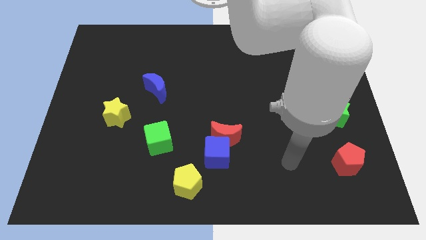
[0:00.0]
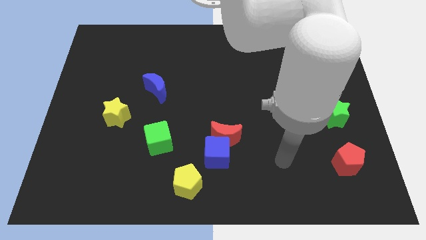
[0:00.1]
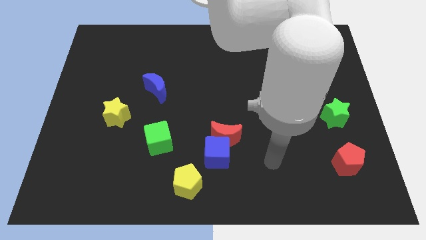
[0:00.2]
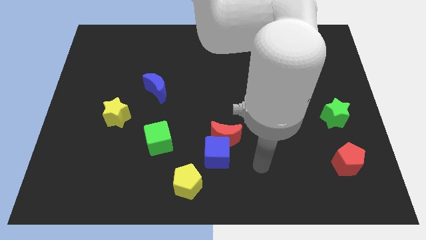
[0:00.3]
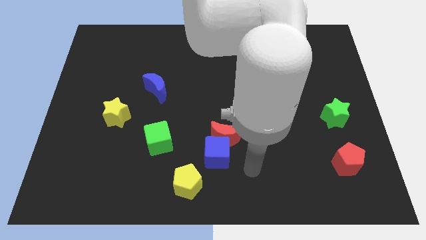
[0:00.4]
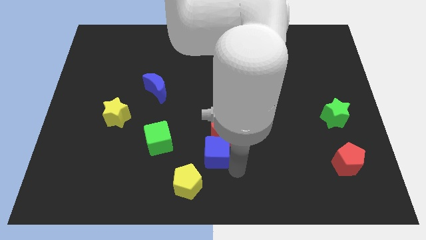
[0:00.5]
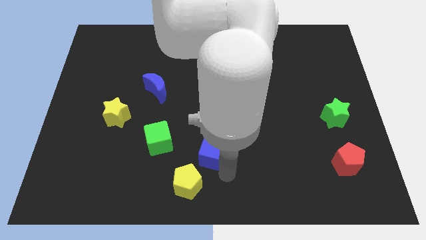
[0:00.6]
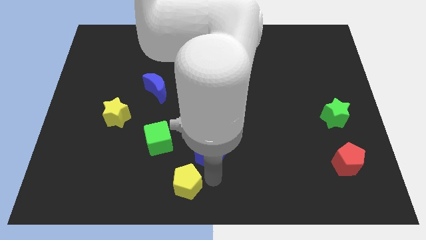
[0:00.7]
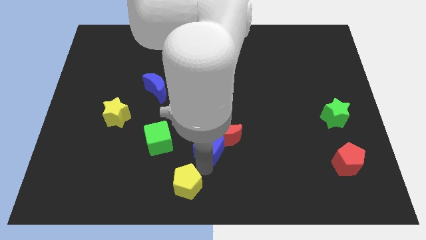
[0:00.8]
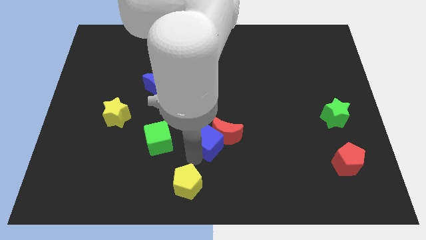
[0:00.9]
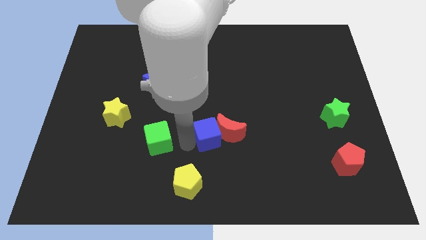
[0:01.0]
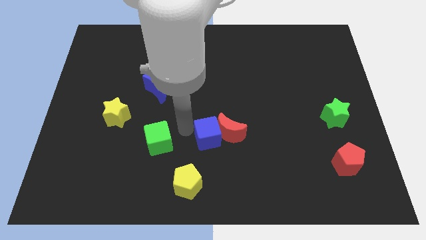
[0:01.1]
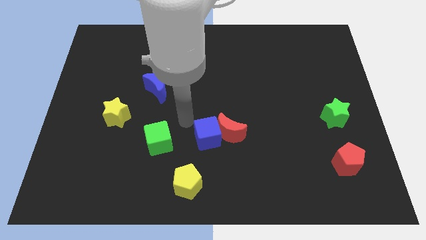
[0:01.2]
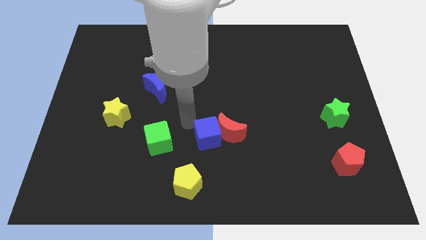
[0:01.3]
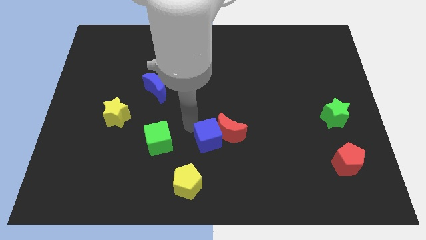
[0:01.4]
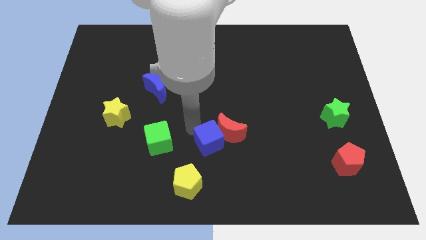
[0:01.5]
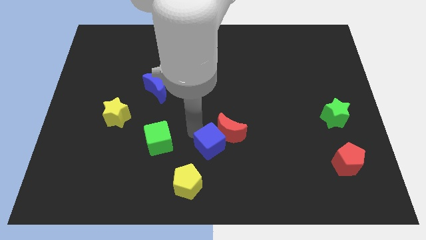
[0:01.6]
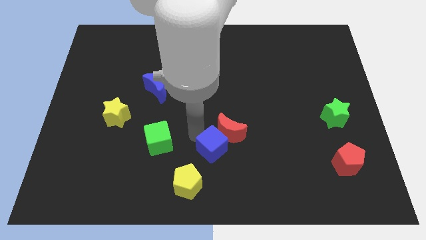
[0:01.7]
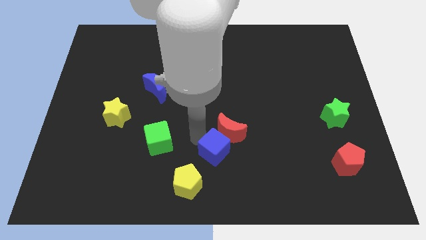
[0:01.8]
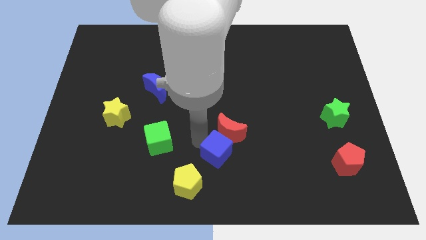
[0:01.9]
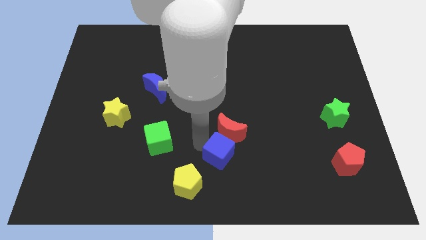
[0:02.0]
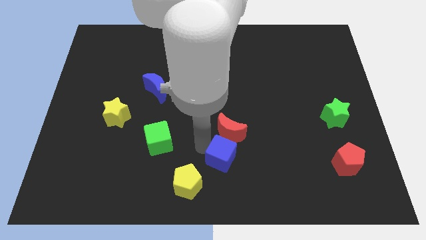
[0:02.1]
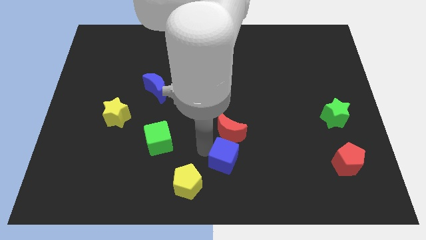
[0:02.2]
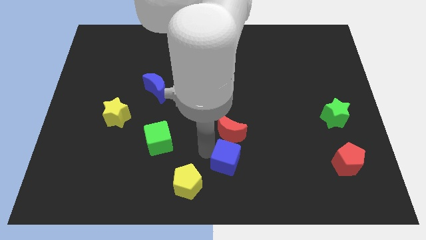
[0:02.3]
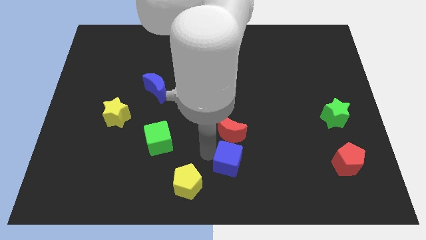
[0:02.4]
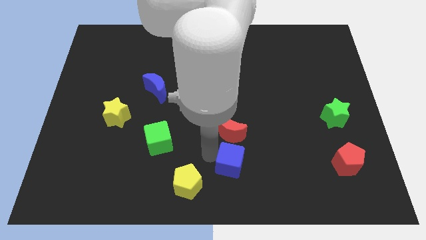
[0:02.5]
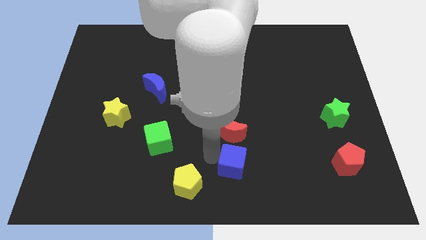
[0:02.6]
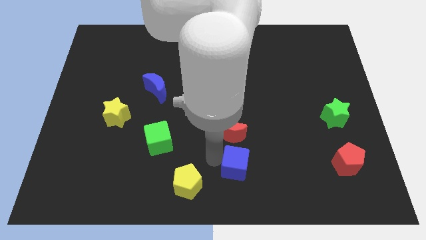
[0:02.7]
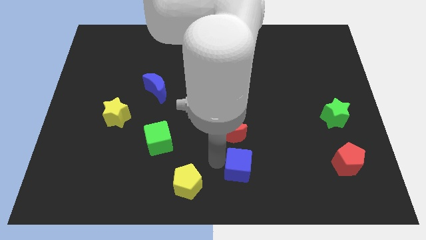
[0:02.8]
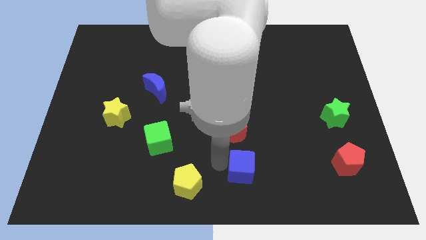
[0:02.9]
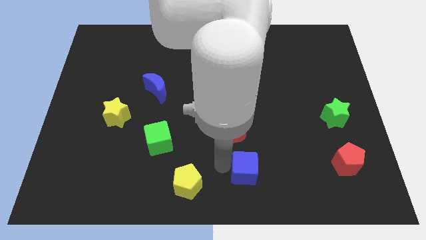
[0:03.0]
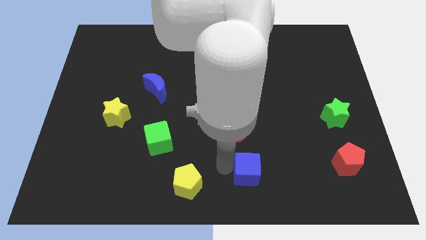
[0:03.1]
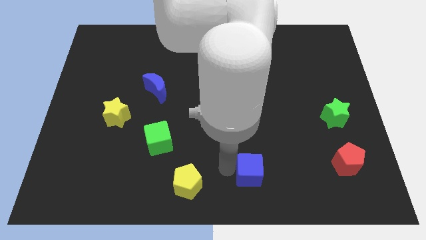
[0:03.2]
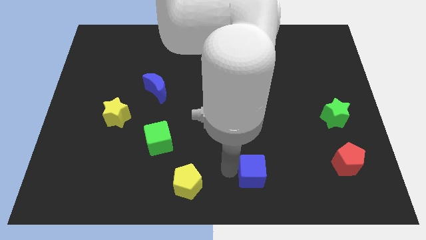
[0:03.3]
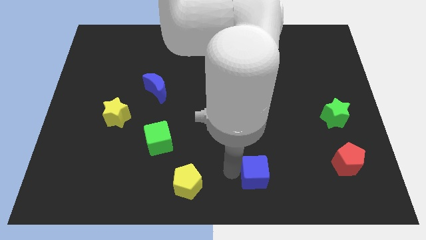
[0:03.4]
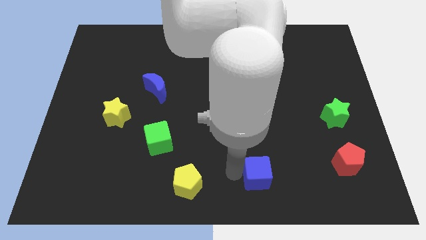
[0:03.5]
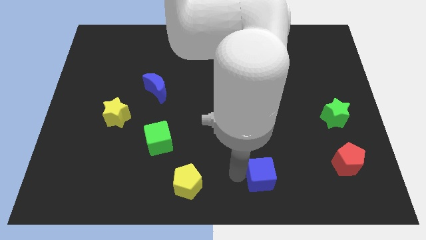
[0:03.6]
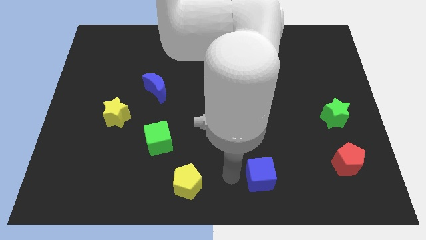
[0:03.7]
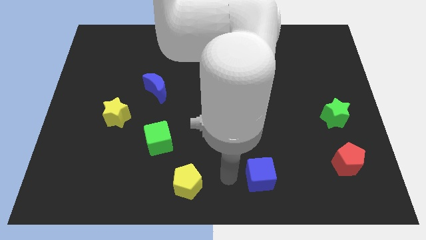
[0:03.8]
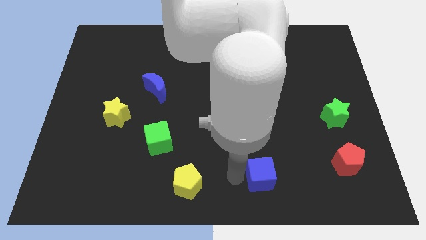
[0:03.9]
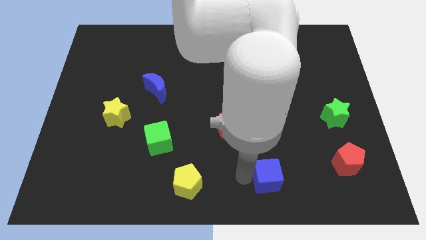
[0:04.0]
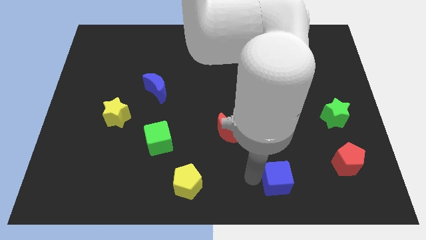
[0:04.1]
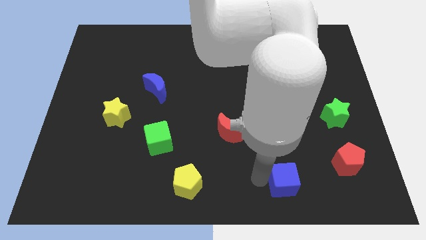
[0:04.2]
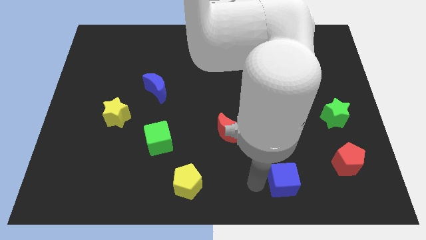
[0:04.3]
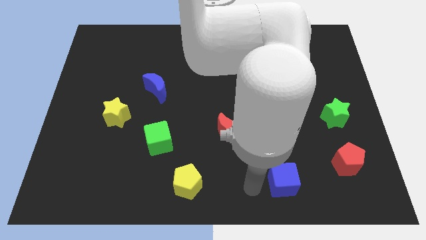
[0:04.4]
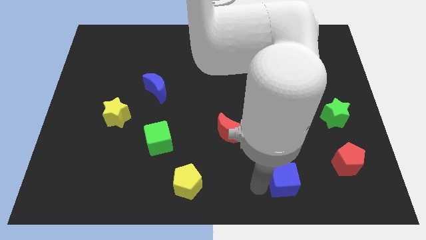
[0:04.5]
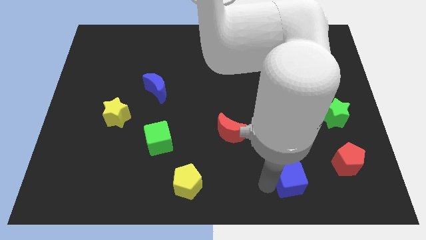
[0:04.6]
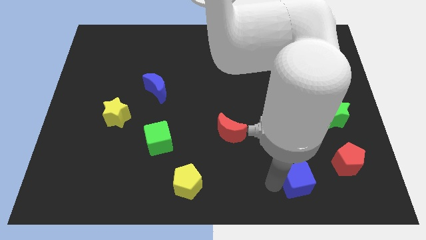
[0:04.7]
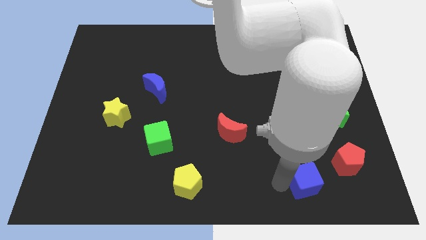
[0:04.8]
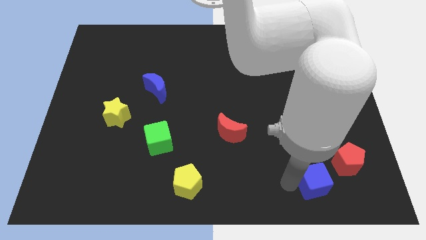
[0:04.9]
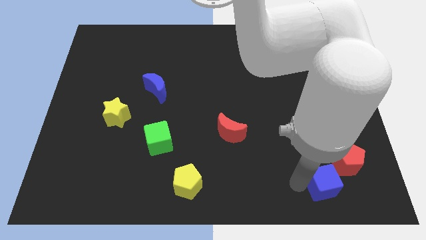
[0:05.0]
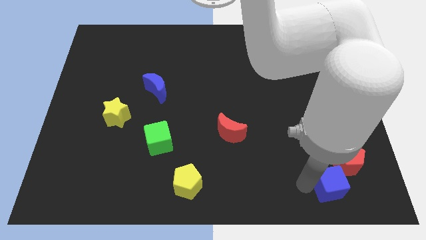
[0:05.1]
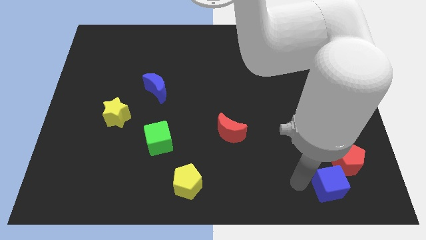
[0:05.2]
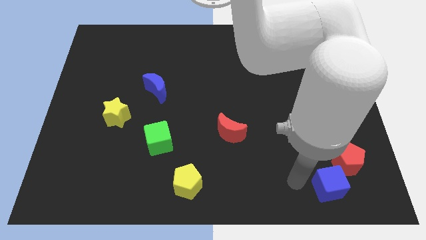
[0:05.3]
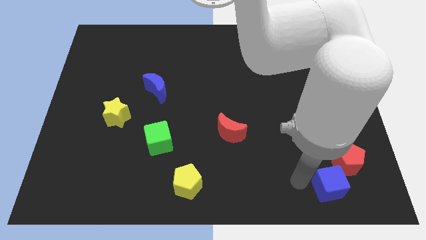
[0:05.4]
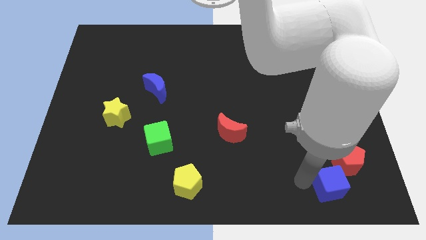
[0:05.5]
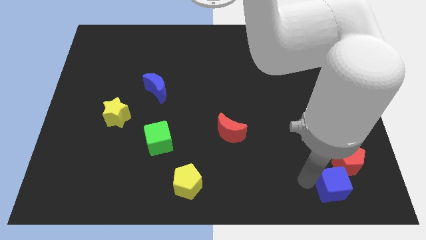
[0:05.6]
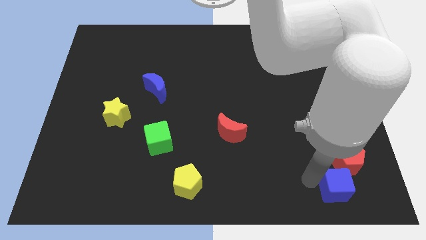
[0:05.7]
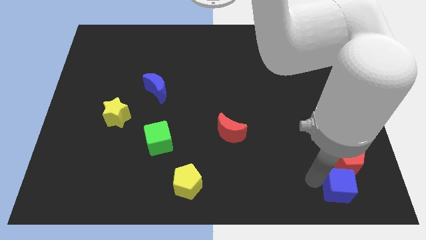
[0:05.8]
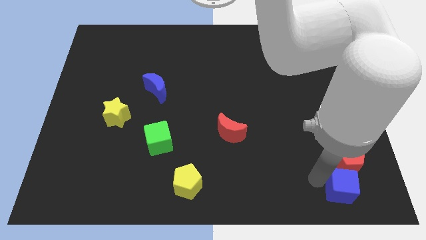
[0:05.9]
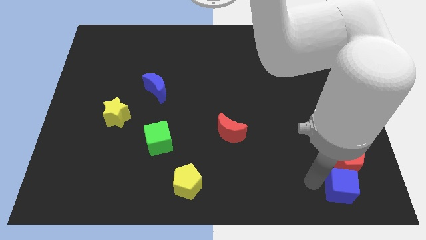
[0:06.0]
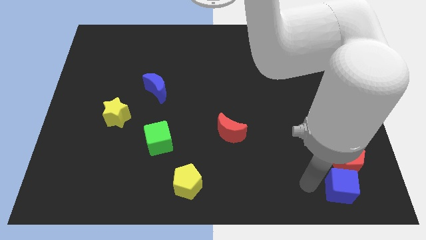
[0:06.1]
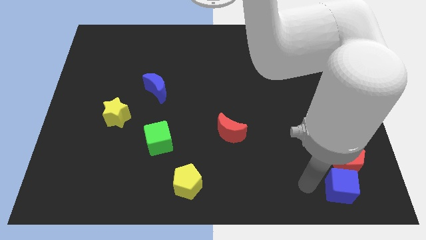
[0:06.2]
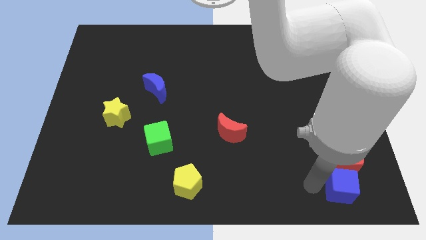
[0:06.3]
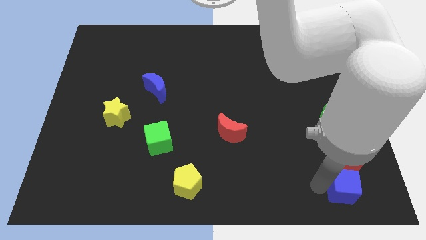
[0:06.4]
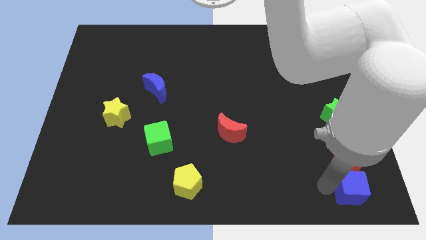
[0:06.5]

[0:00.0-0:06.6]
put the blue cube to the bottom right of the board

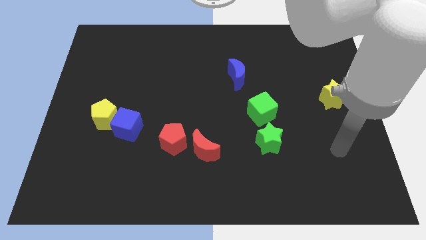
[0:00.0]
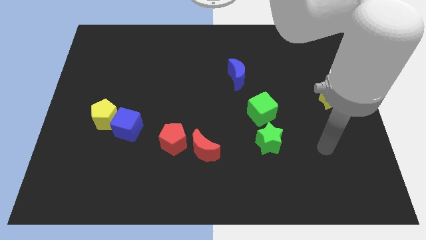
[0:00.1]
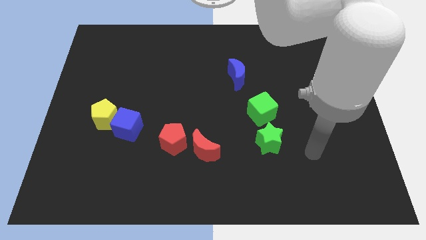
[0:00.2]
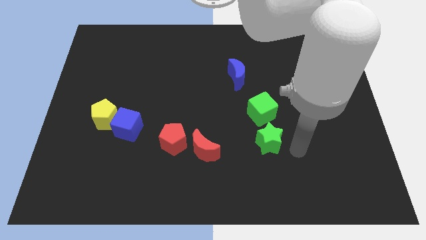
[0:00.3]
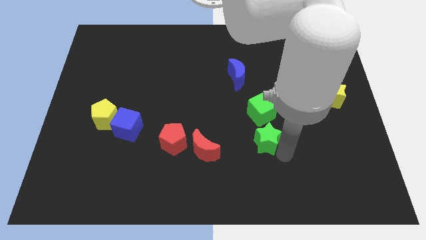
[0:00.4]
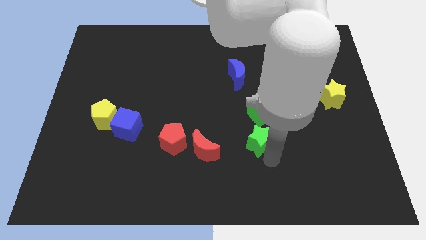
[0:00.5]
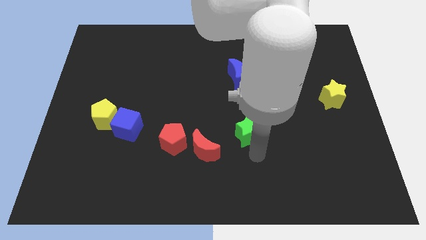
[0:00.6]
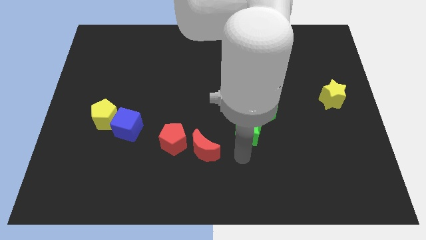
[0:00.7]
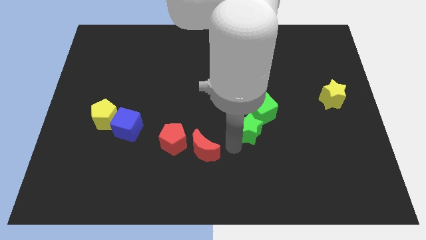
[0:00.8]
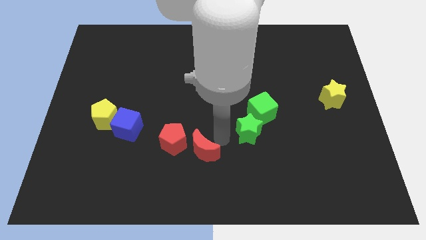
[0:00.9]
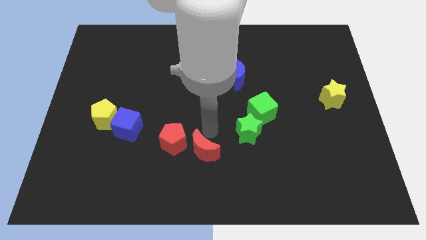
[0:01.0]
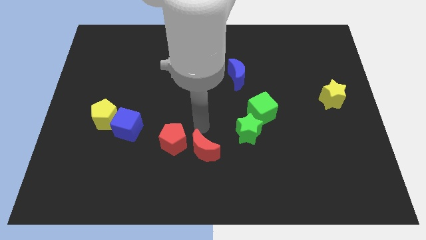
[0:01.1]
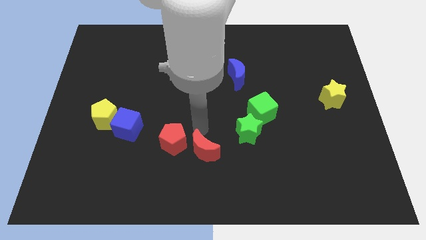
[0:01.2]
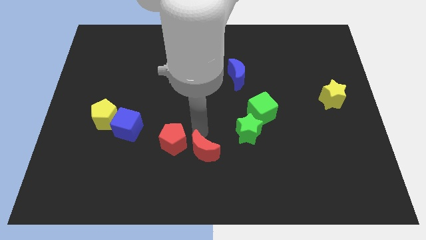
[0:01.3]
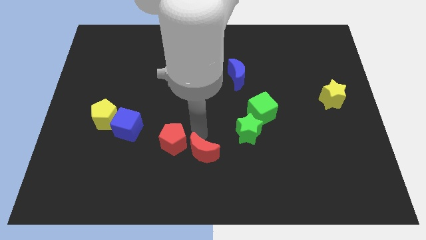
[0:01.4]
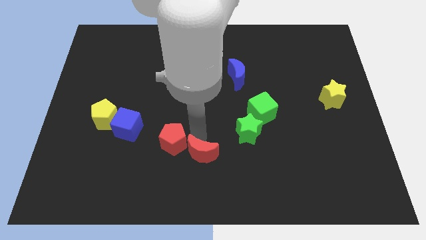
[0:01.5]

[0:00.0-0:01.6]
move the red moon to the bottom side
